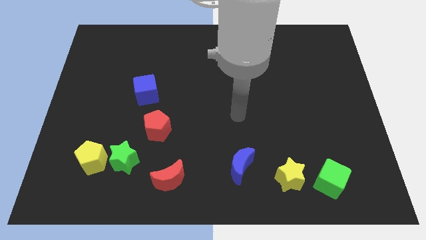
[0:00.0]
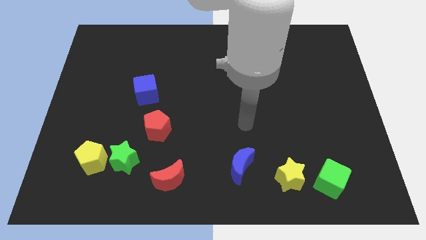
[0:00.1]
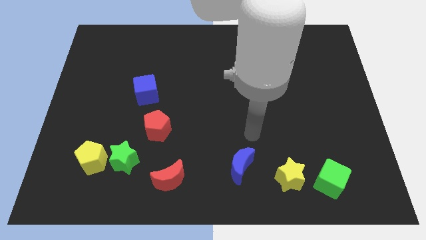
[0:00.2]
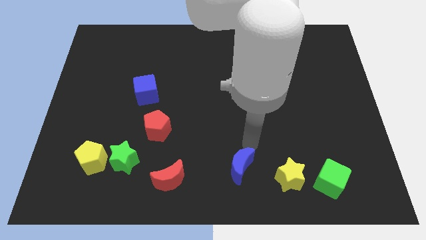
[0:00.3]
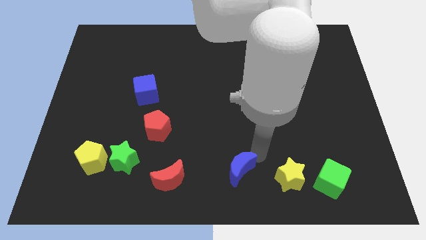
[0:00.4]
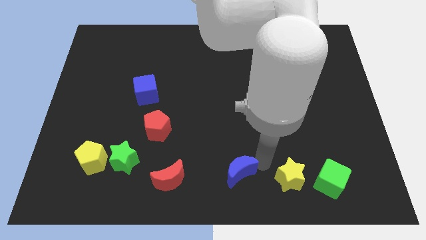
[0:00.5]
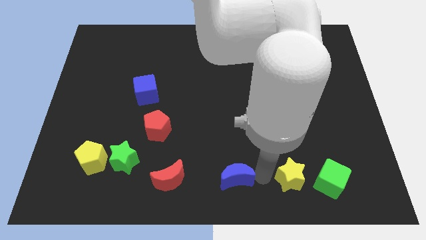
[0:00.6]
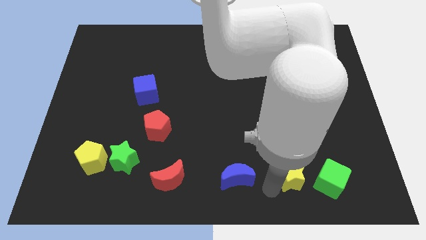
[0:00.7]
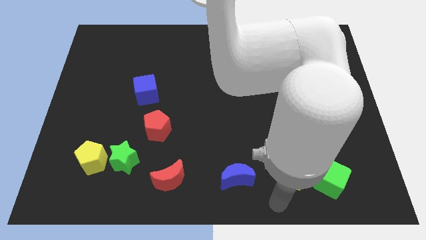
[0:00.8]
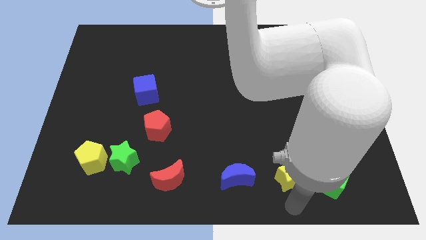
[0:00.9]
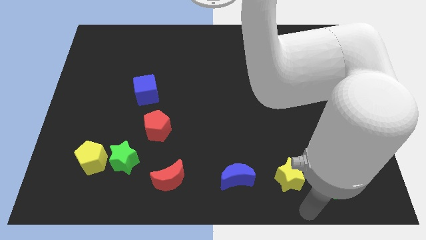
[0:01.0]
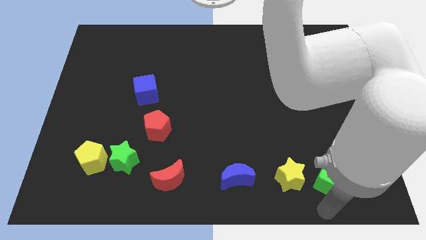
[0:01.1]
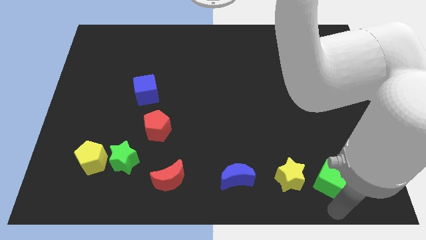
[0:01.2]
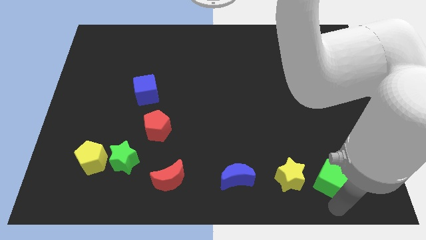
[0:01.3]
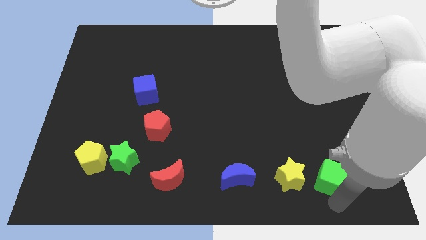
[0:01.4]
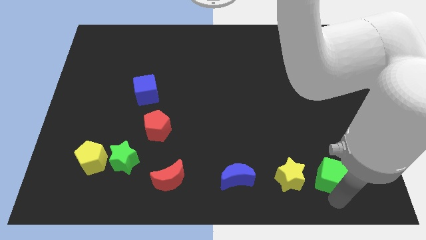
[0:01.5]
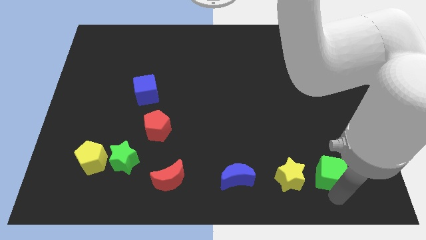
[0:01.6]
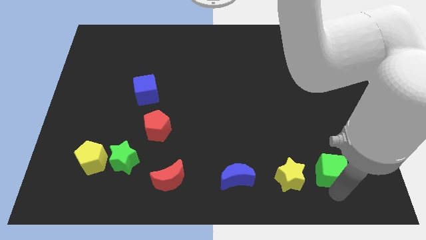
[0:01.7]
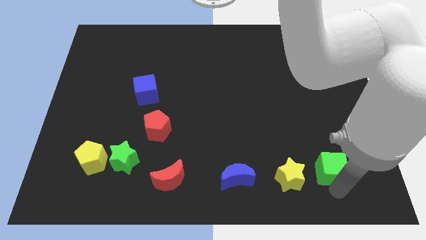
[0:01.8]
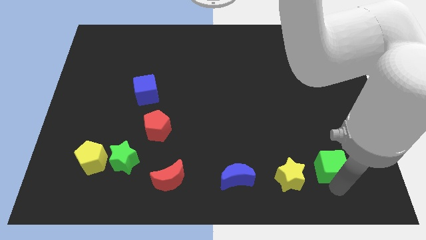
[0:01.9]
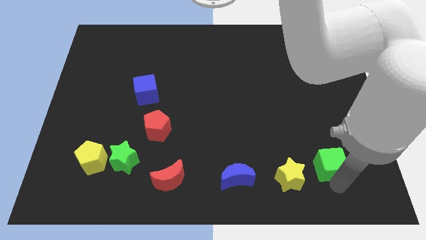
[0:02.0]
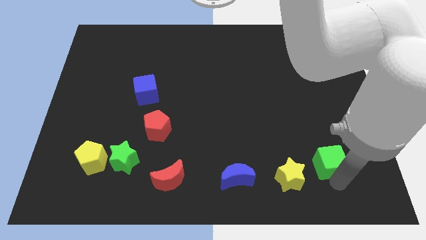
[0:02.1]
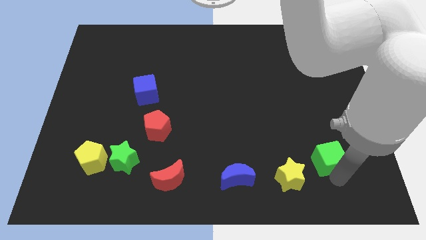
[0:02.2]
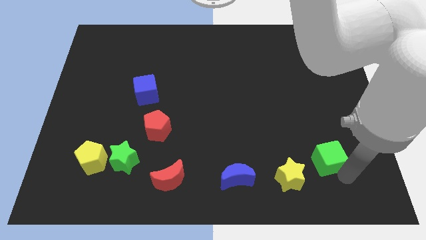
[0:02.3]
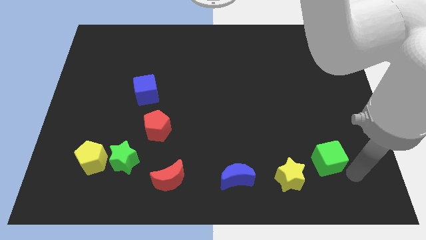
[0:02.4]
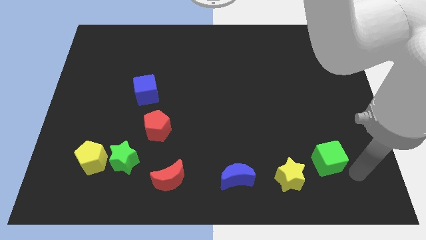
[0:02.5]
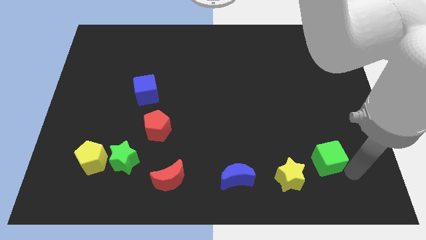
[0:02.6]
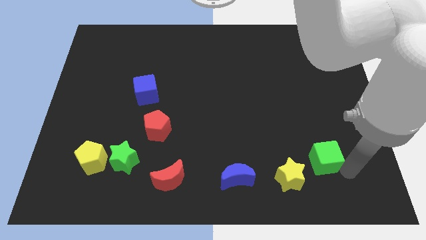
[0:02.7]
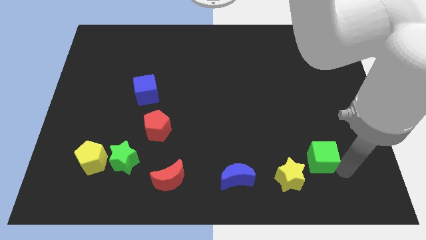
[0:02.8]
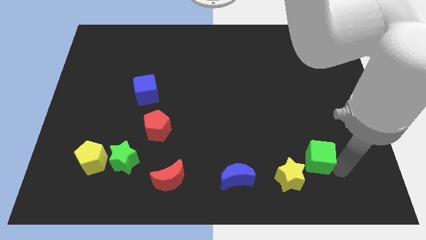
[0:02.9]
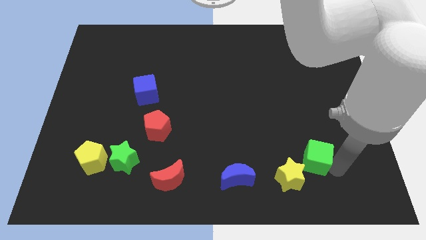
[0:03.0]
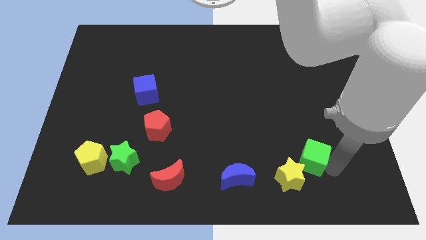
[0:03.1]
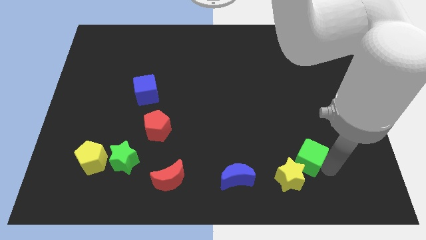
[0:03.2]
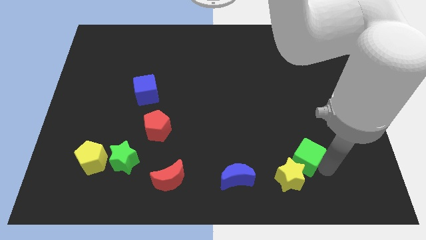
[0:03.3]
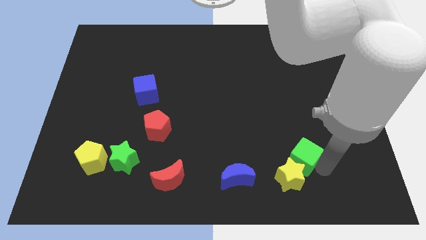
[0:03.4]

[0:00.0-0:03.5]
push the green cube somewhat upwards and to the left diagonally

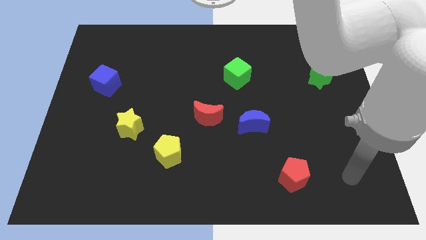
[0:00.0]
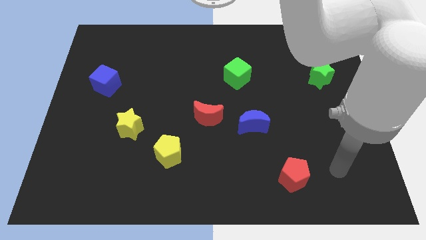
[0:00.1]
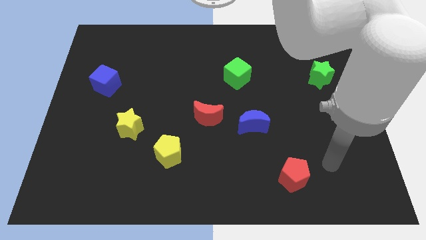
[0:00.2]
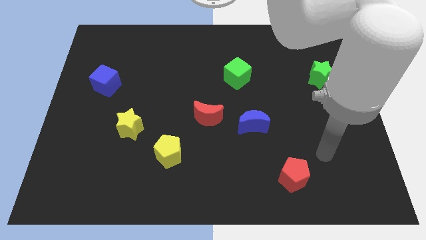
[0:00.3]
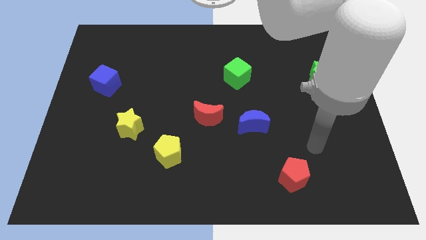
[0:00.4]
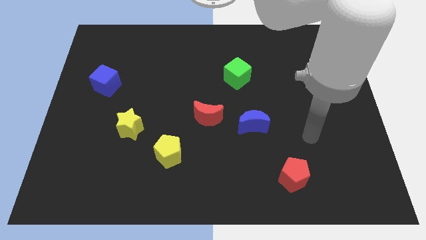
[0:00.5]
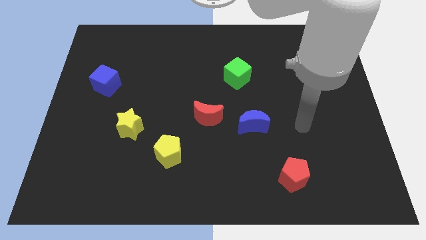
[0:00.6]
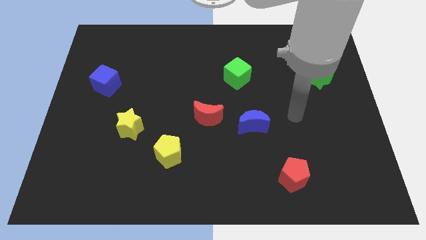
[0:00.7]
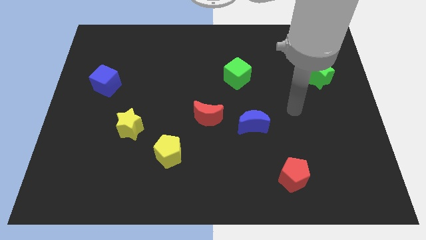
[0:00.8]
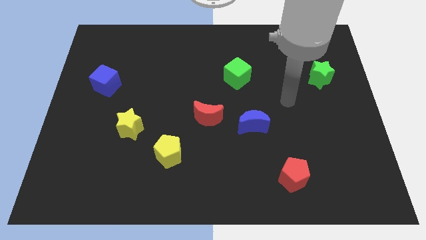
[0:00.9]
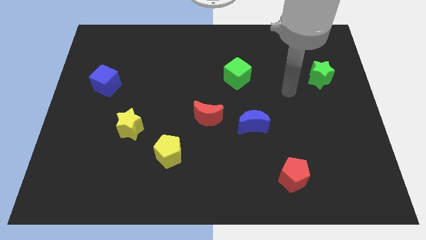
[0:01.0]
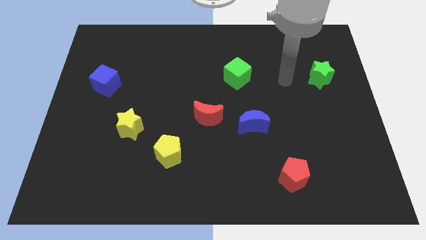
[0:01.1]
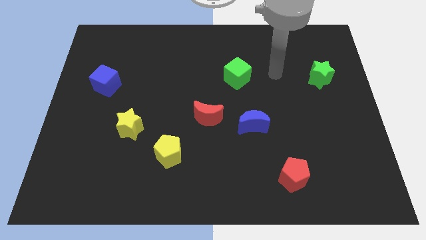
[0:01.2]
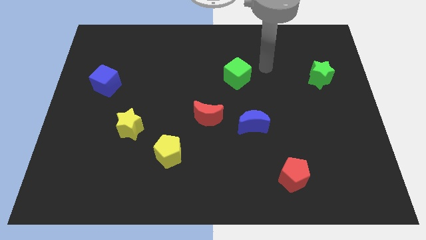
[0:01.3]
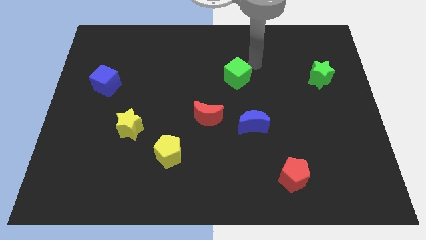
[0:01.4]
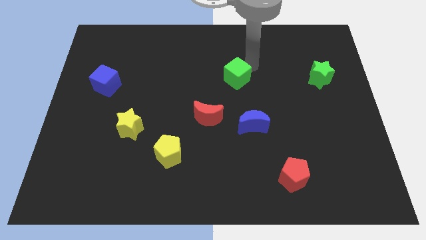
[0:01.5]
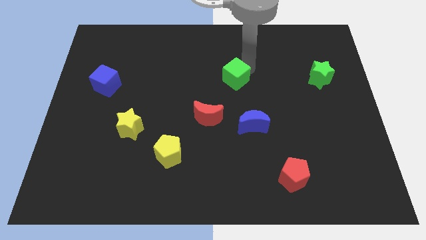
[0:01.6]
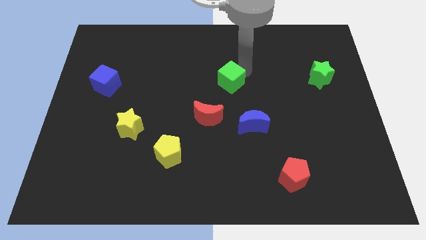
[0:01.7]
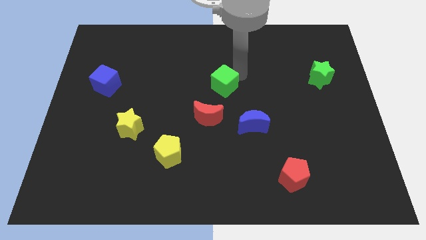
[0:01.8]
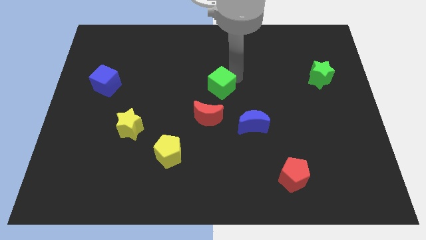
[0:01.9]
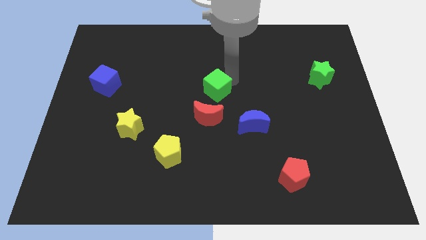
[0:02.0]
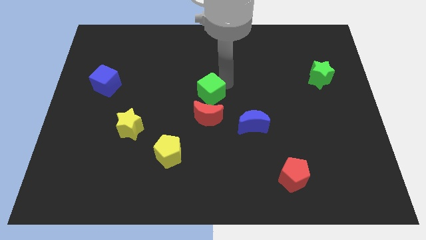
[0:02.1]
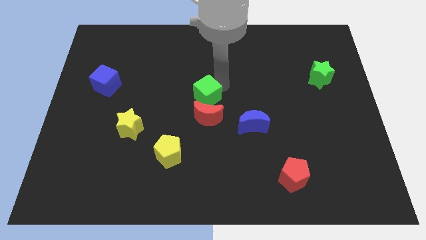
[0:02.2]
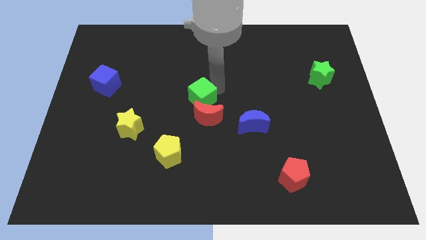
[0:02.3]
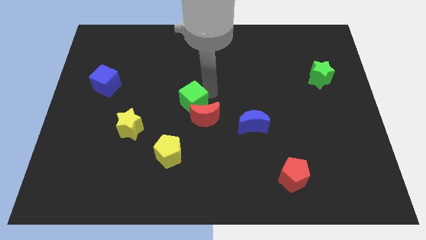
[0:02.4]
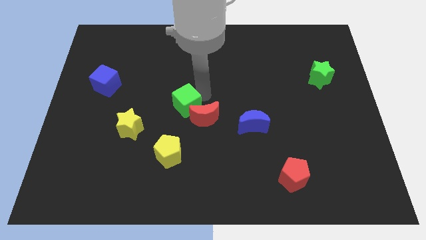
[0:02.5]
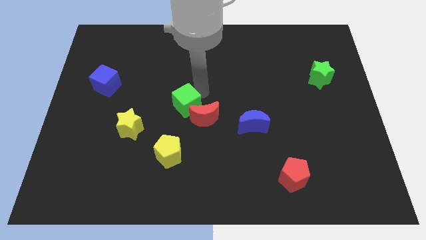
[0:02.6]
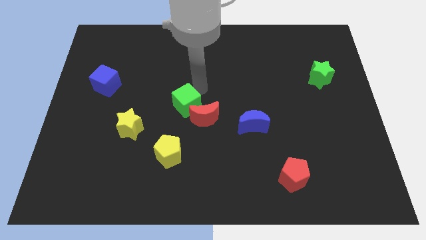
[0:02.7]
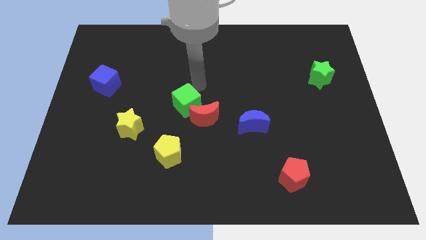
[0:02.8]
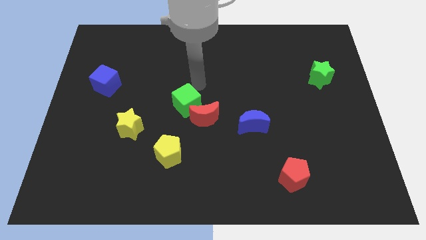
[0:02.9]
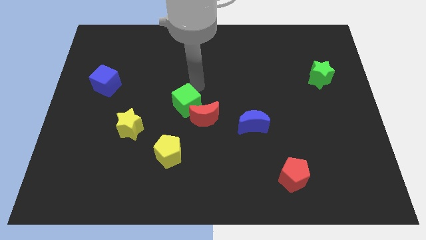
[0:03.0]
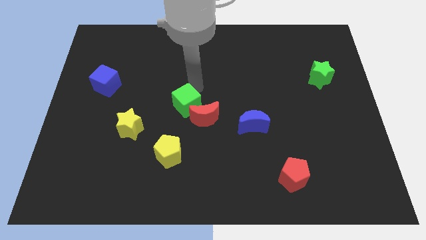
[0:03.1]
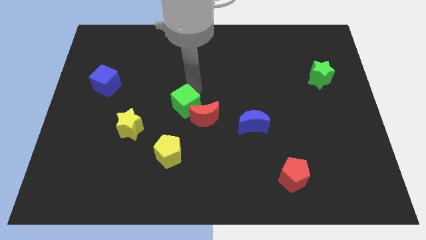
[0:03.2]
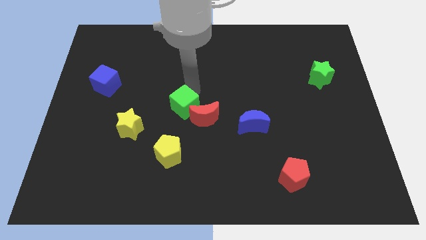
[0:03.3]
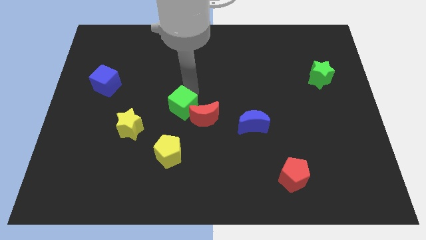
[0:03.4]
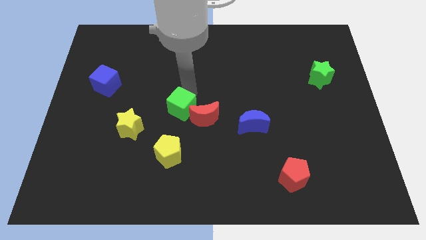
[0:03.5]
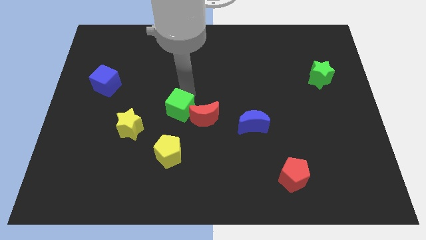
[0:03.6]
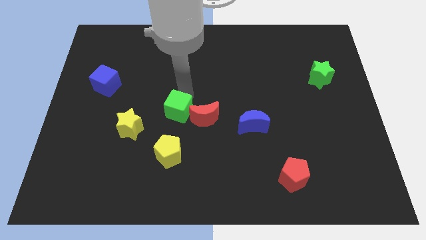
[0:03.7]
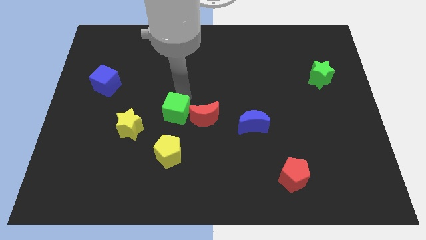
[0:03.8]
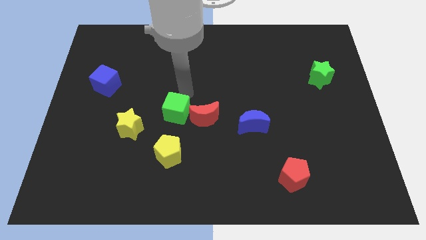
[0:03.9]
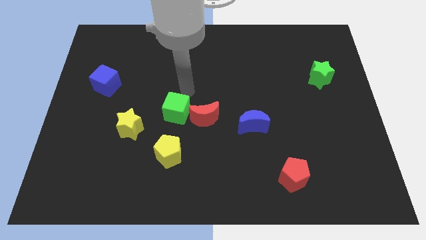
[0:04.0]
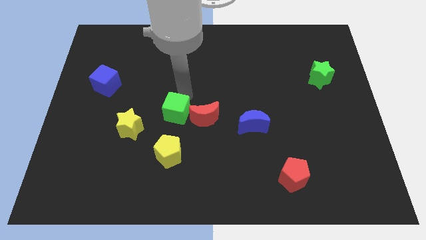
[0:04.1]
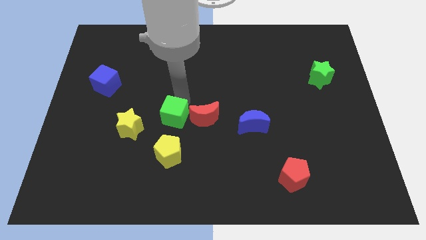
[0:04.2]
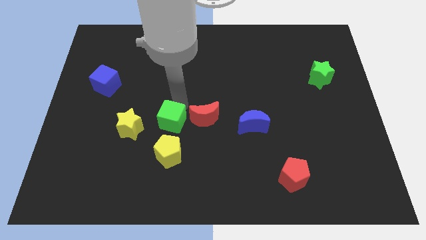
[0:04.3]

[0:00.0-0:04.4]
move the green cube downwards and to the left
